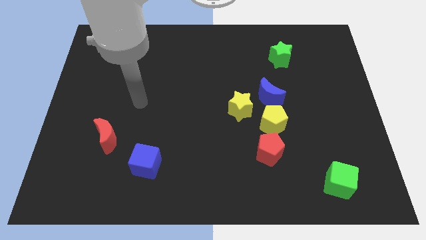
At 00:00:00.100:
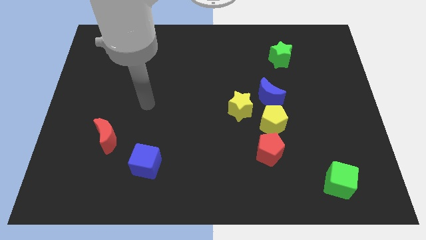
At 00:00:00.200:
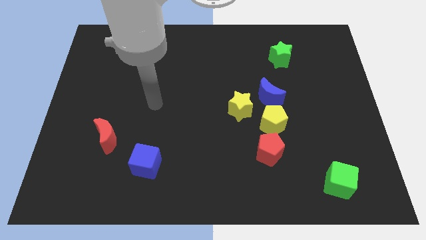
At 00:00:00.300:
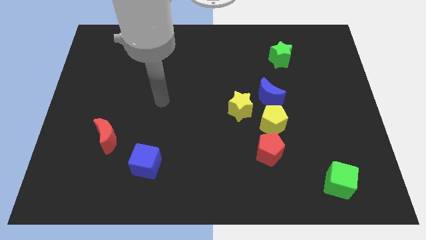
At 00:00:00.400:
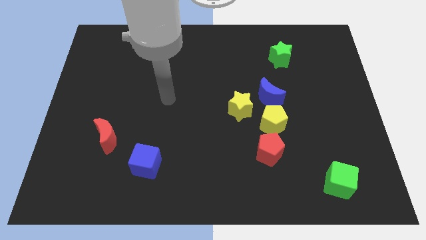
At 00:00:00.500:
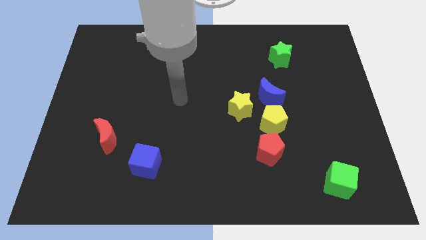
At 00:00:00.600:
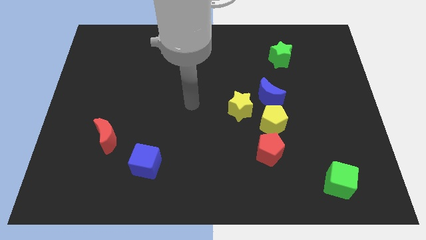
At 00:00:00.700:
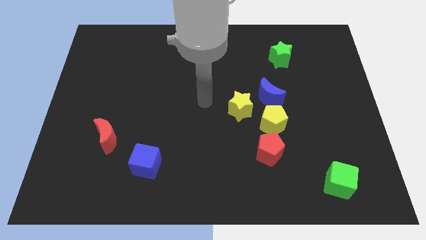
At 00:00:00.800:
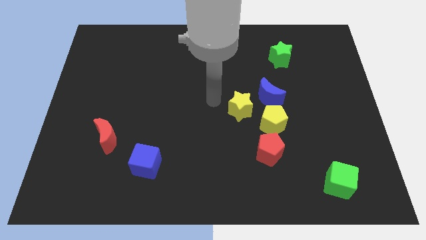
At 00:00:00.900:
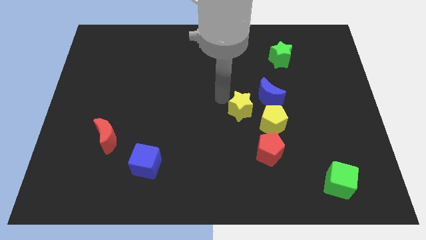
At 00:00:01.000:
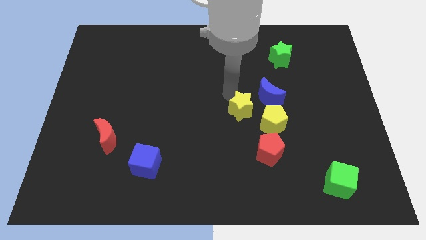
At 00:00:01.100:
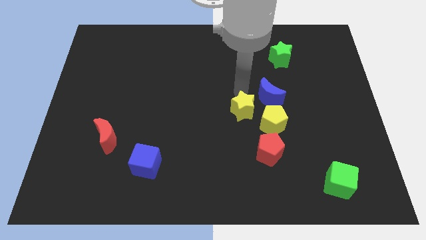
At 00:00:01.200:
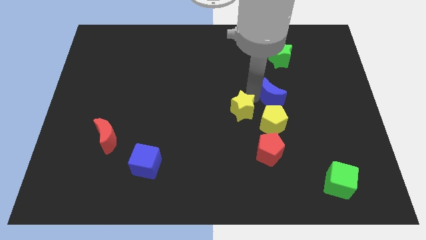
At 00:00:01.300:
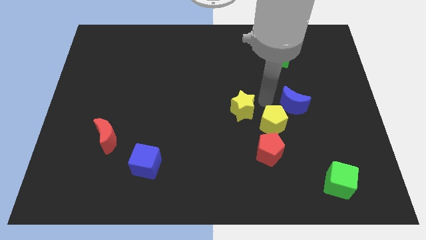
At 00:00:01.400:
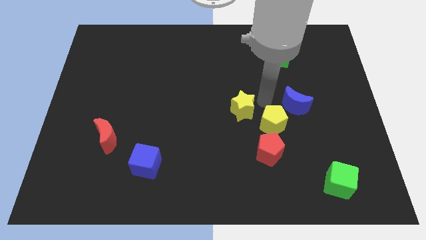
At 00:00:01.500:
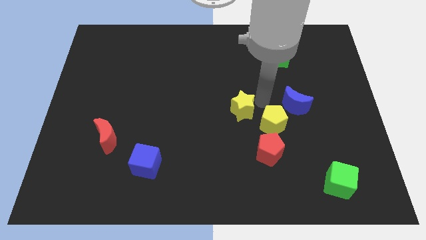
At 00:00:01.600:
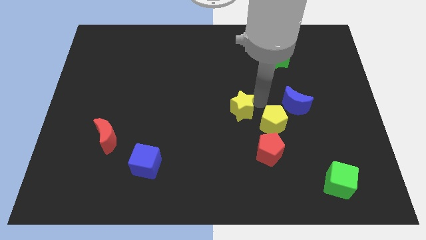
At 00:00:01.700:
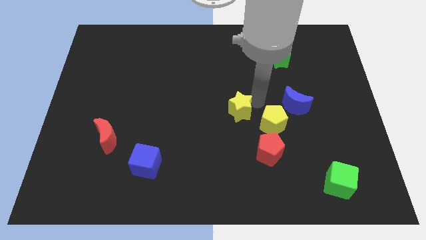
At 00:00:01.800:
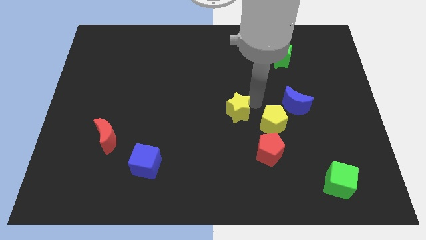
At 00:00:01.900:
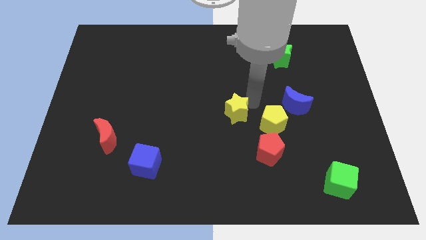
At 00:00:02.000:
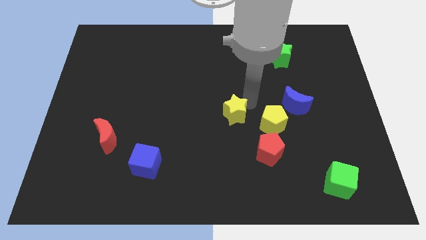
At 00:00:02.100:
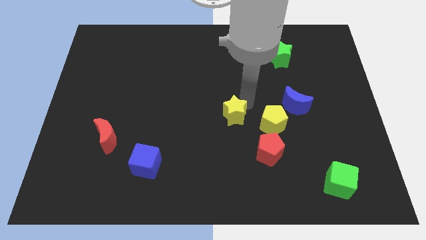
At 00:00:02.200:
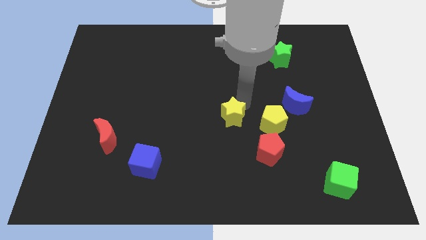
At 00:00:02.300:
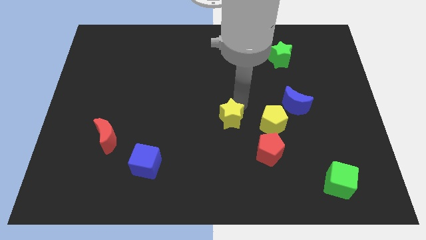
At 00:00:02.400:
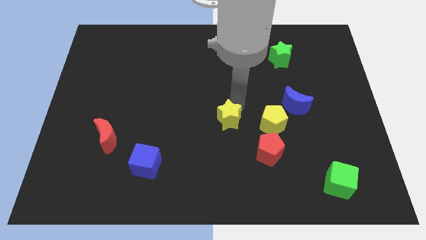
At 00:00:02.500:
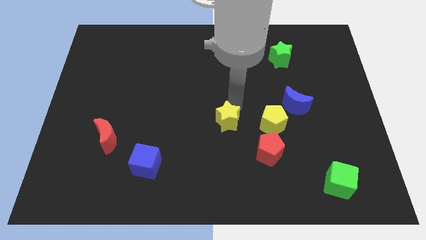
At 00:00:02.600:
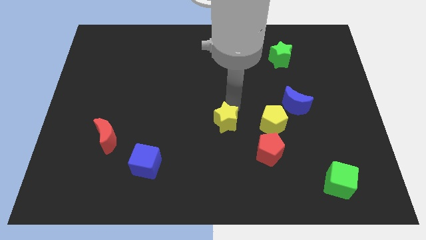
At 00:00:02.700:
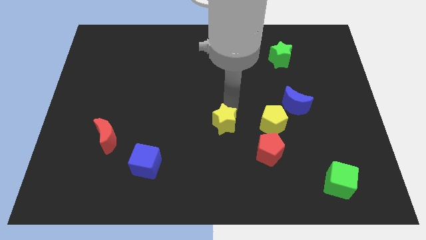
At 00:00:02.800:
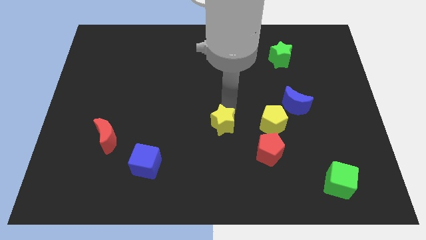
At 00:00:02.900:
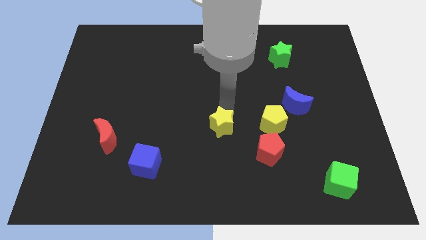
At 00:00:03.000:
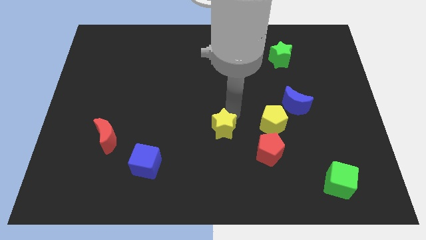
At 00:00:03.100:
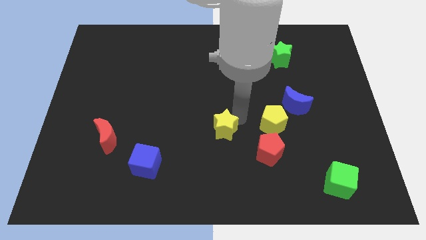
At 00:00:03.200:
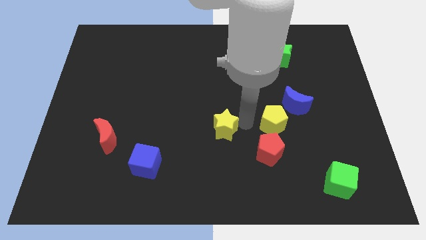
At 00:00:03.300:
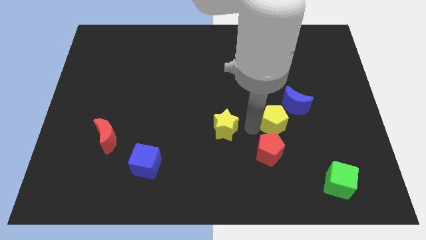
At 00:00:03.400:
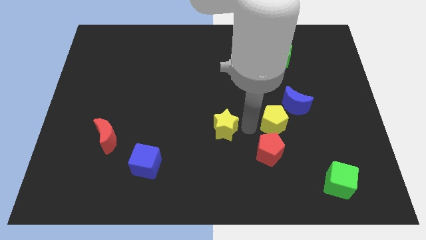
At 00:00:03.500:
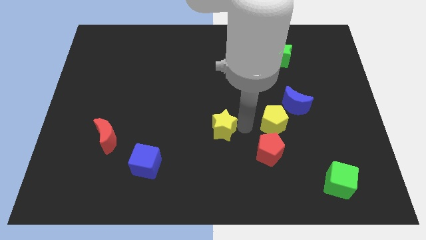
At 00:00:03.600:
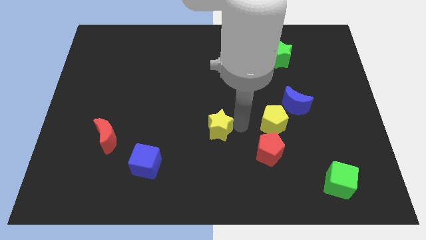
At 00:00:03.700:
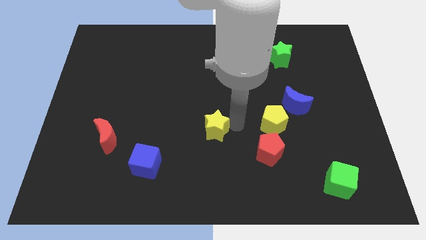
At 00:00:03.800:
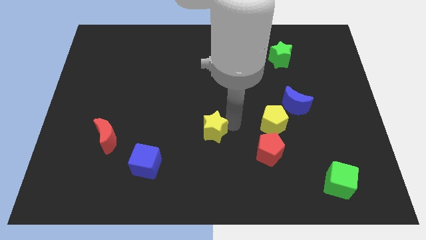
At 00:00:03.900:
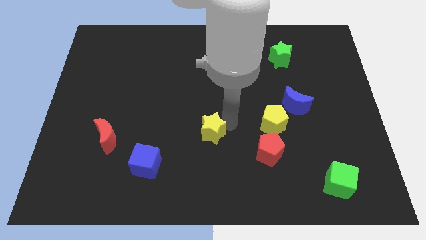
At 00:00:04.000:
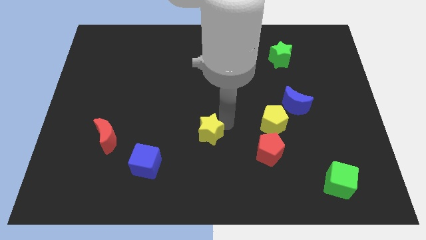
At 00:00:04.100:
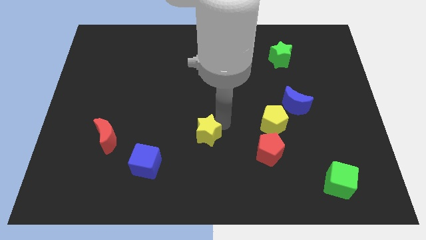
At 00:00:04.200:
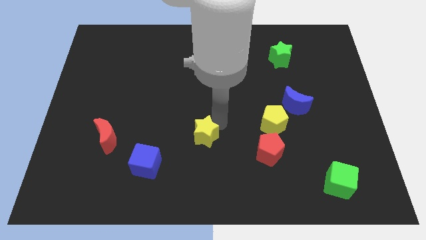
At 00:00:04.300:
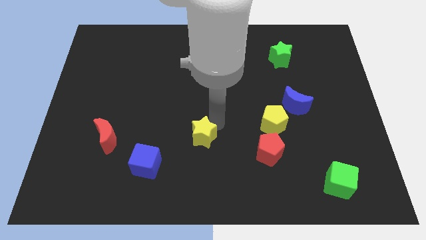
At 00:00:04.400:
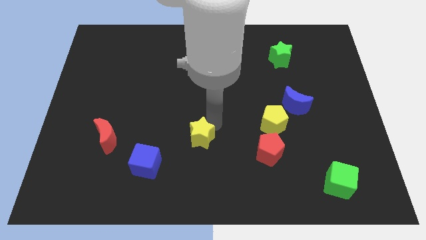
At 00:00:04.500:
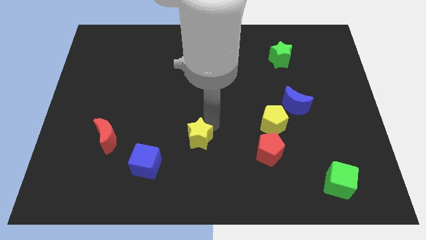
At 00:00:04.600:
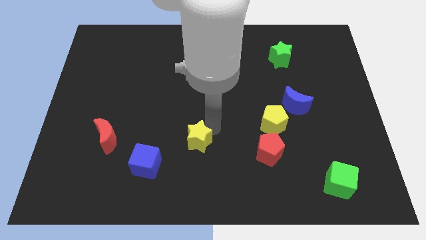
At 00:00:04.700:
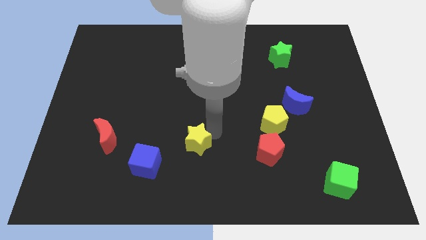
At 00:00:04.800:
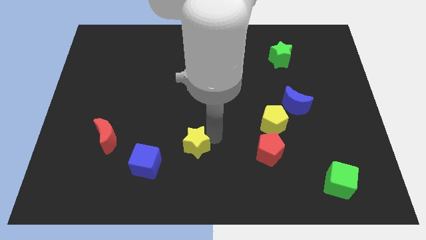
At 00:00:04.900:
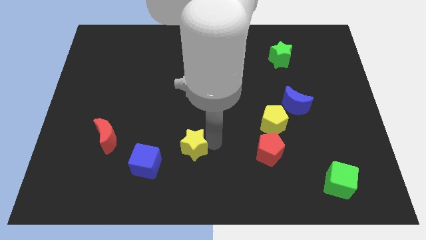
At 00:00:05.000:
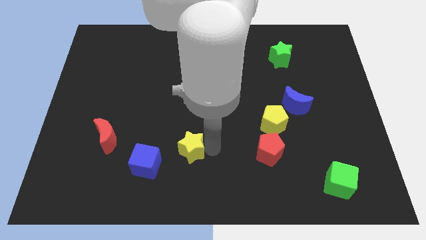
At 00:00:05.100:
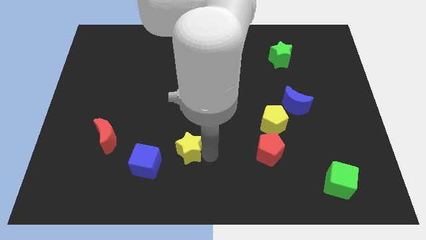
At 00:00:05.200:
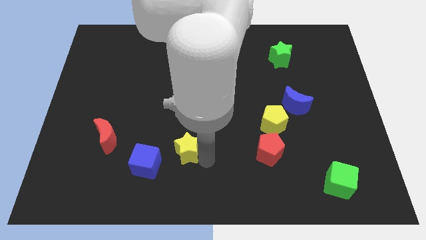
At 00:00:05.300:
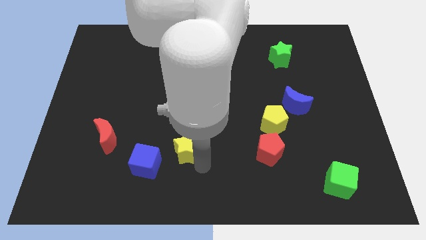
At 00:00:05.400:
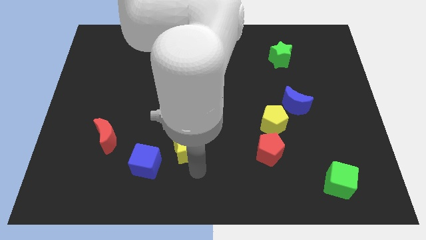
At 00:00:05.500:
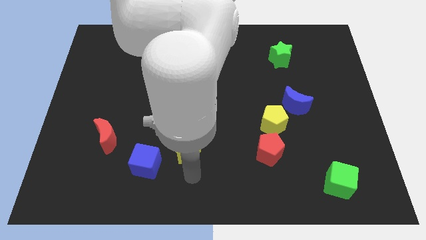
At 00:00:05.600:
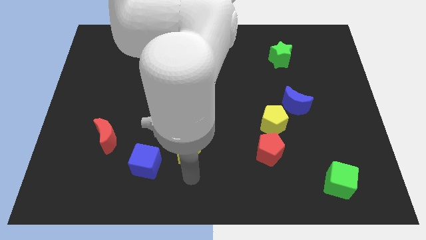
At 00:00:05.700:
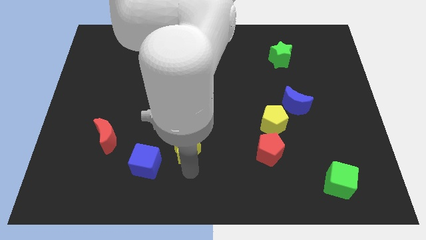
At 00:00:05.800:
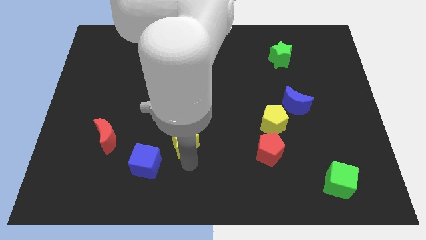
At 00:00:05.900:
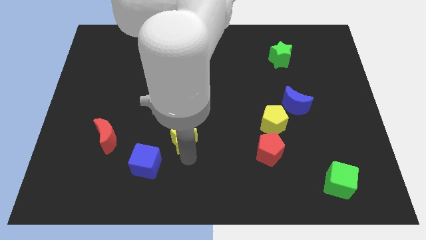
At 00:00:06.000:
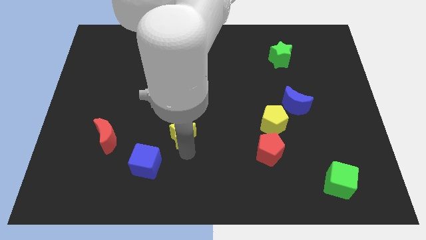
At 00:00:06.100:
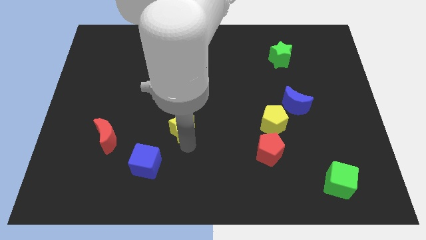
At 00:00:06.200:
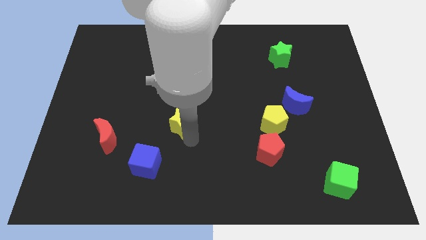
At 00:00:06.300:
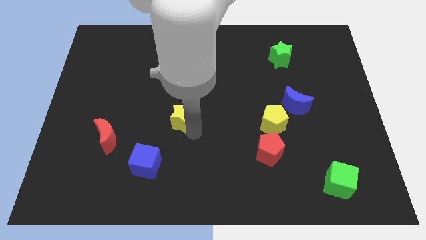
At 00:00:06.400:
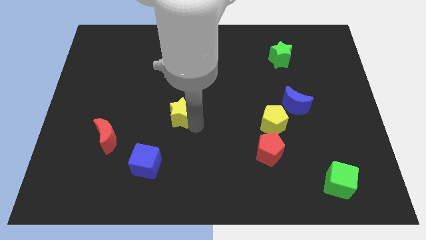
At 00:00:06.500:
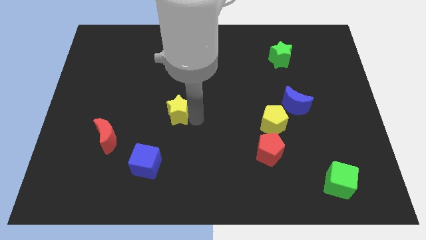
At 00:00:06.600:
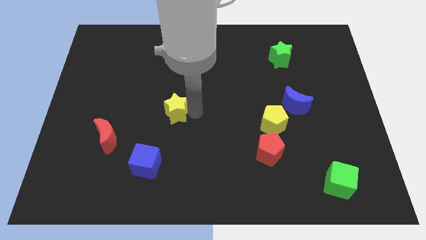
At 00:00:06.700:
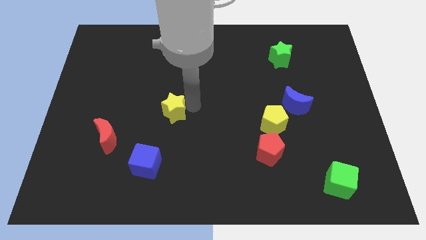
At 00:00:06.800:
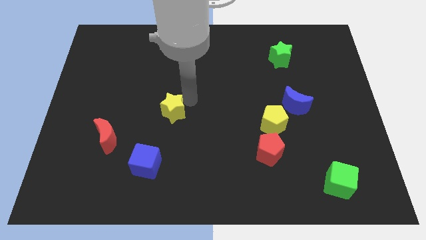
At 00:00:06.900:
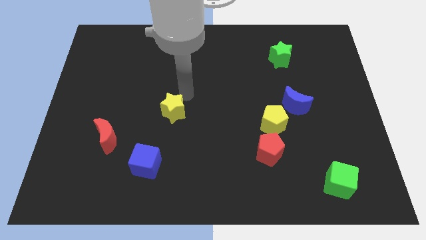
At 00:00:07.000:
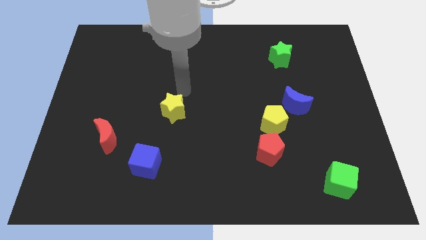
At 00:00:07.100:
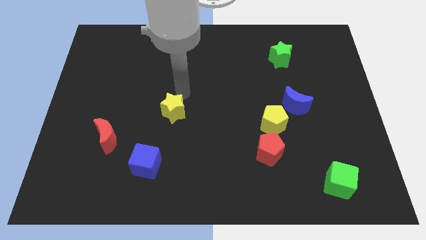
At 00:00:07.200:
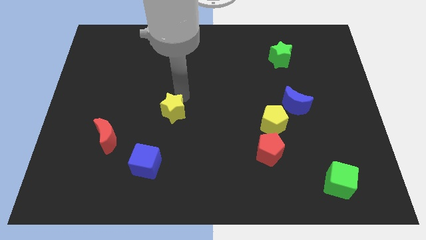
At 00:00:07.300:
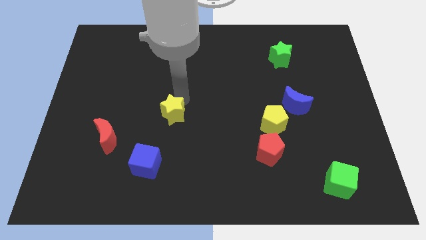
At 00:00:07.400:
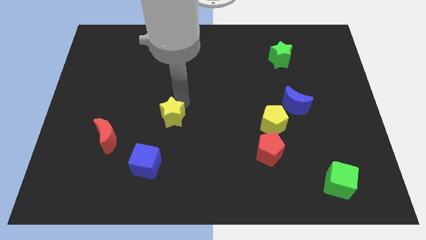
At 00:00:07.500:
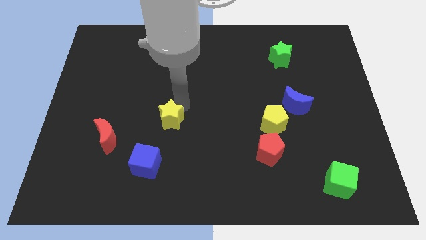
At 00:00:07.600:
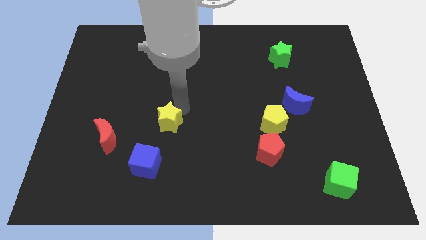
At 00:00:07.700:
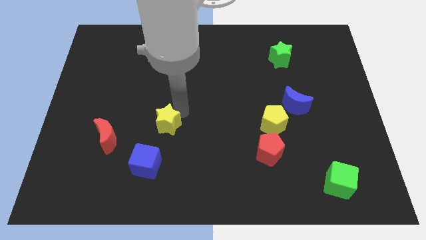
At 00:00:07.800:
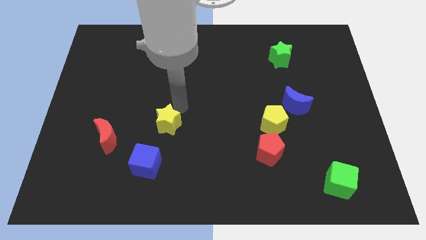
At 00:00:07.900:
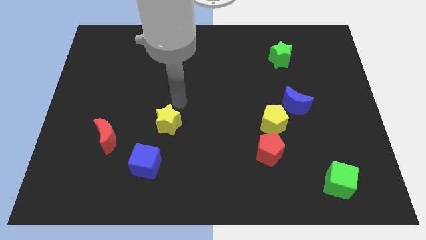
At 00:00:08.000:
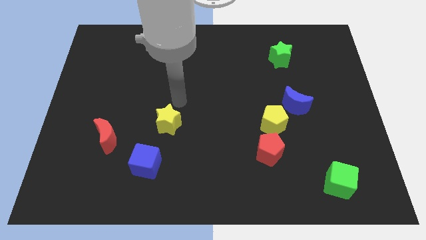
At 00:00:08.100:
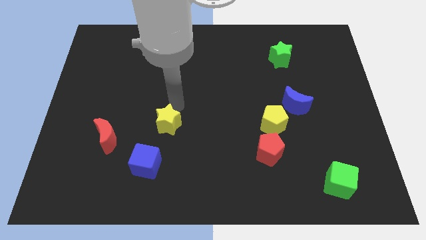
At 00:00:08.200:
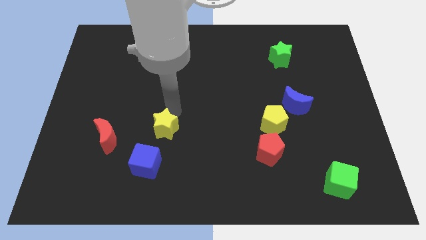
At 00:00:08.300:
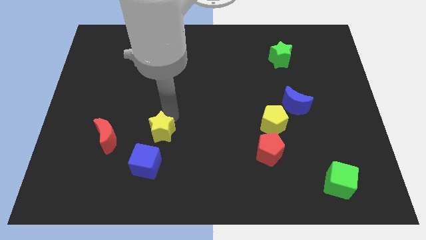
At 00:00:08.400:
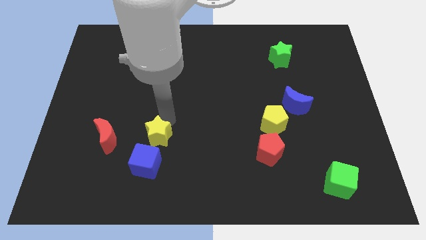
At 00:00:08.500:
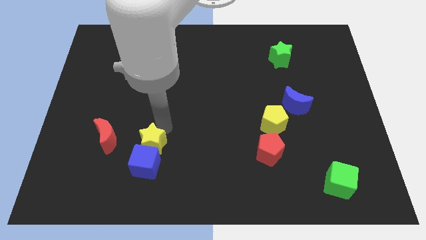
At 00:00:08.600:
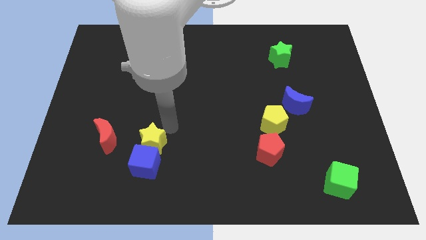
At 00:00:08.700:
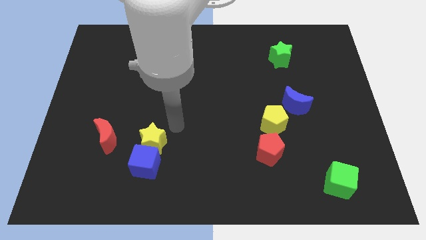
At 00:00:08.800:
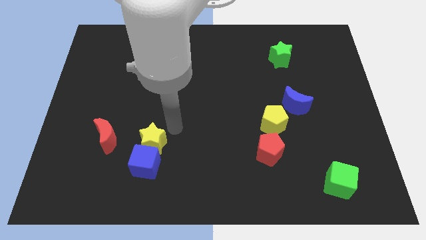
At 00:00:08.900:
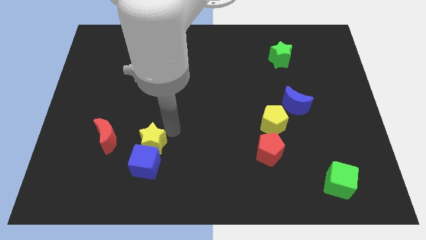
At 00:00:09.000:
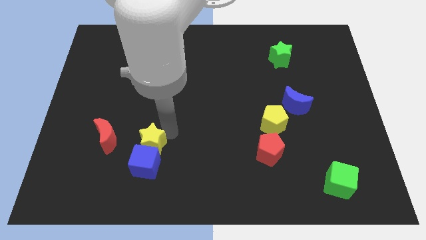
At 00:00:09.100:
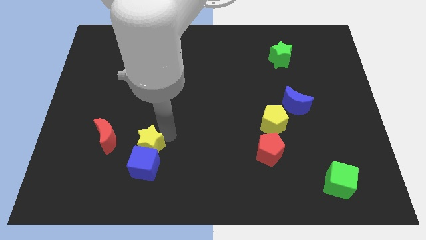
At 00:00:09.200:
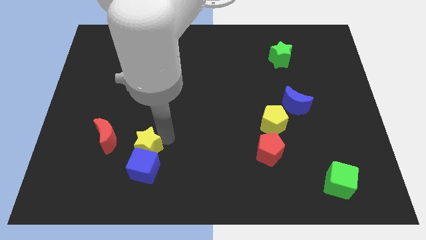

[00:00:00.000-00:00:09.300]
move the yellow star diagonally down and to the right of the red moon
